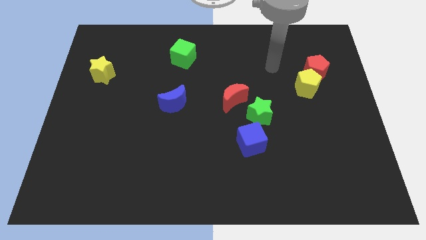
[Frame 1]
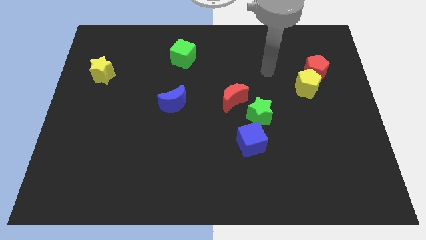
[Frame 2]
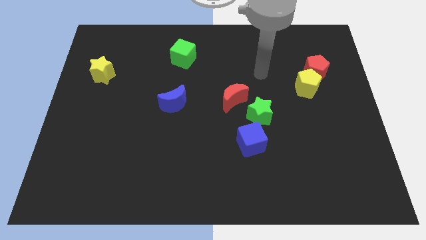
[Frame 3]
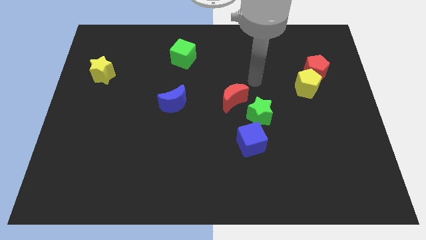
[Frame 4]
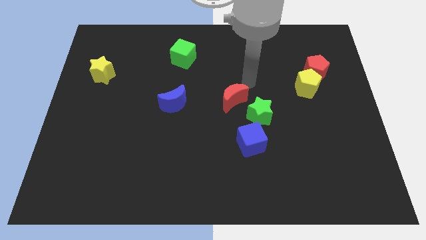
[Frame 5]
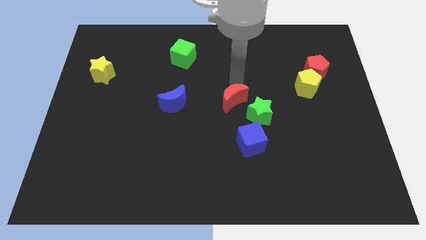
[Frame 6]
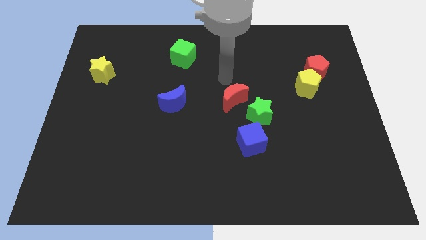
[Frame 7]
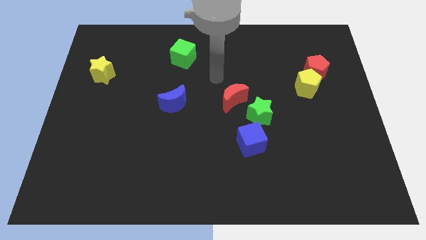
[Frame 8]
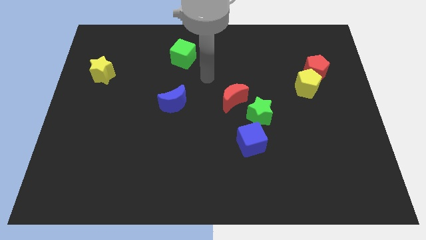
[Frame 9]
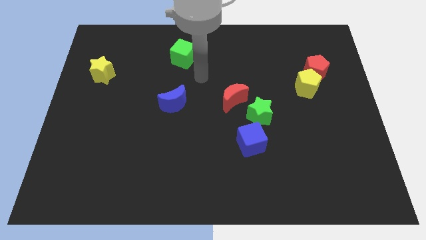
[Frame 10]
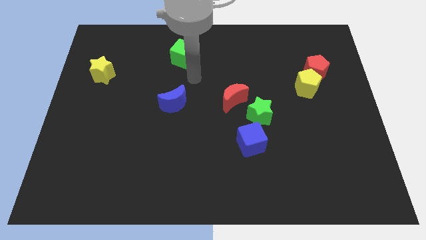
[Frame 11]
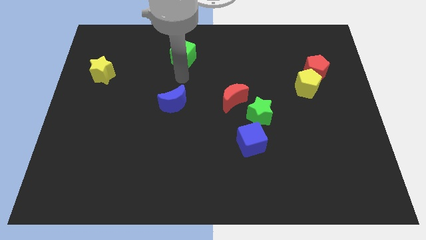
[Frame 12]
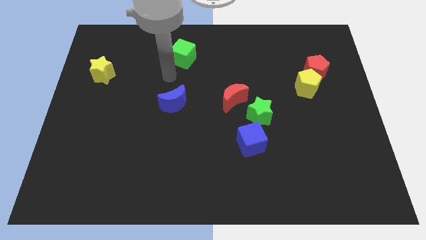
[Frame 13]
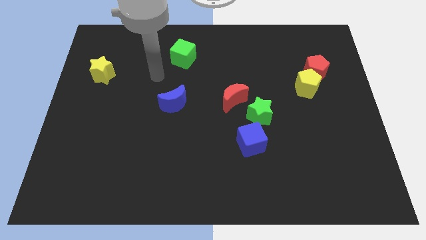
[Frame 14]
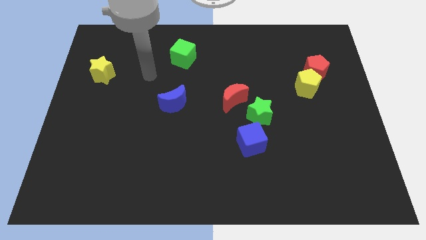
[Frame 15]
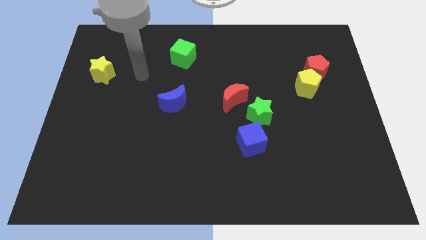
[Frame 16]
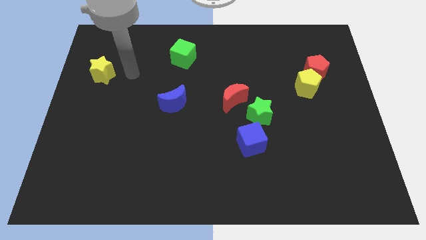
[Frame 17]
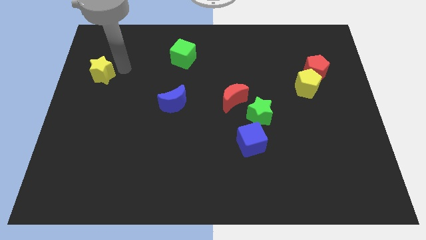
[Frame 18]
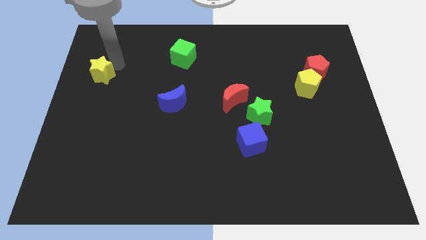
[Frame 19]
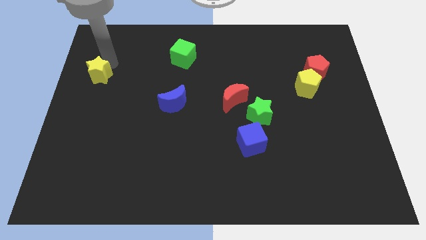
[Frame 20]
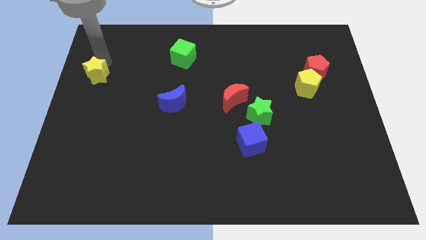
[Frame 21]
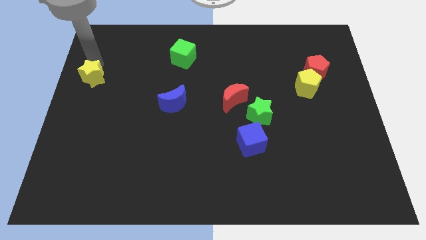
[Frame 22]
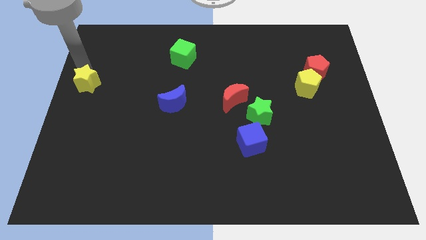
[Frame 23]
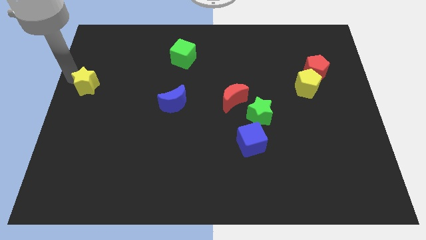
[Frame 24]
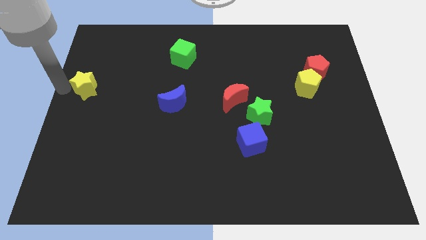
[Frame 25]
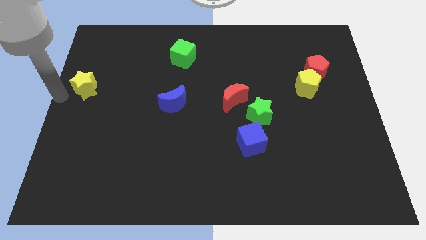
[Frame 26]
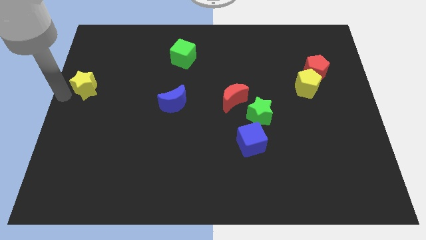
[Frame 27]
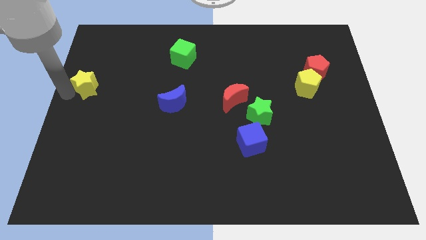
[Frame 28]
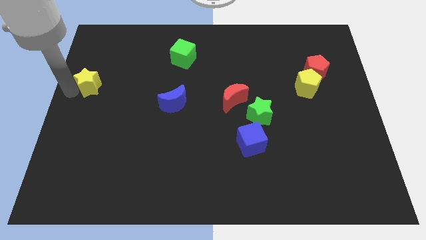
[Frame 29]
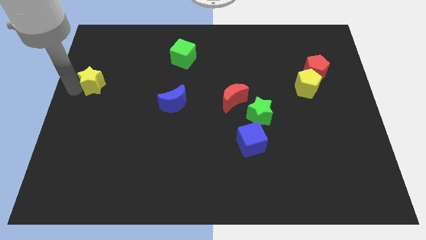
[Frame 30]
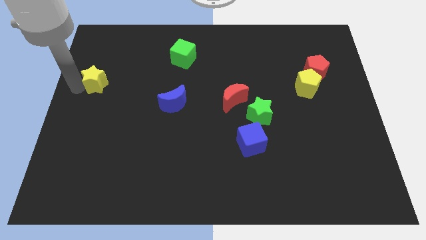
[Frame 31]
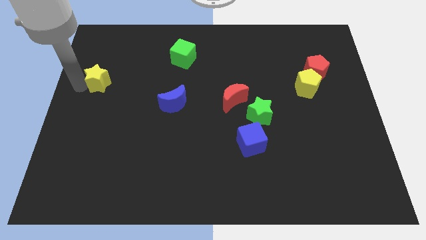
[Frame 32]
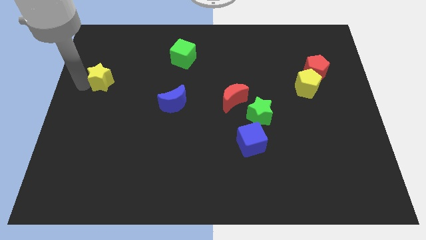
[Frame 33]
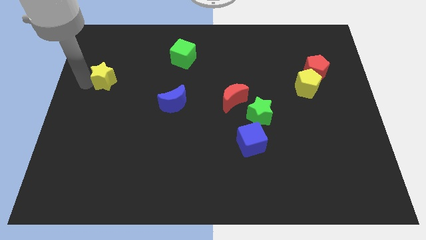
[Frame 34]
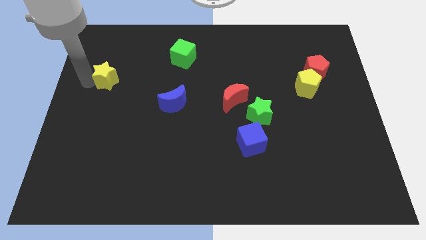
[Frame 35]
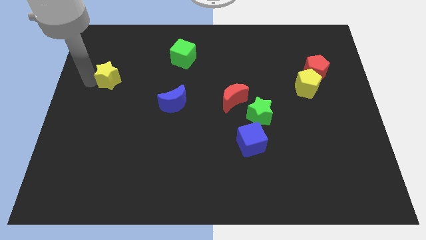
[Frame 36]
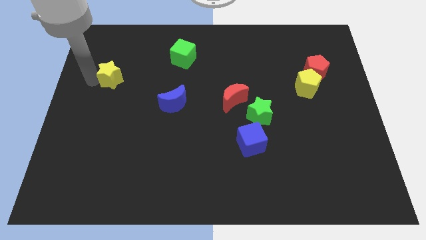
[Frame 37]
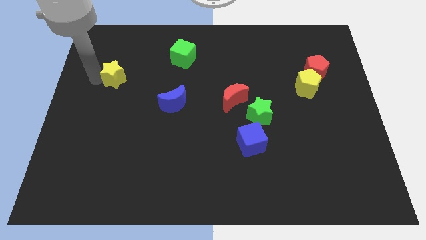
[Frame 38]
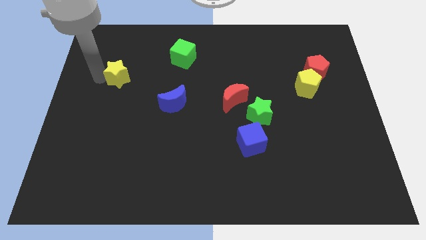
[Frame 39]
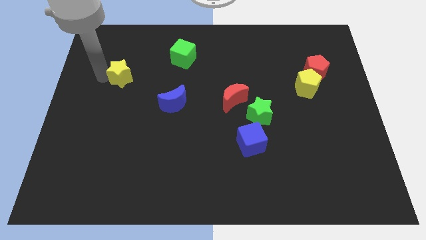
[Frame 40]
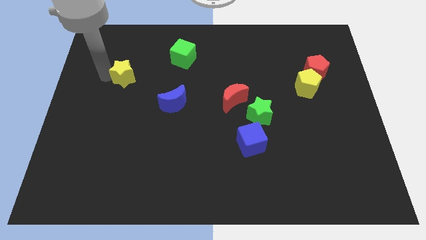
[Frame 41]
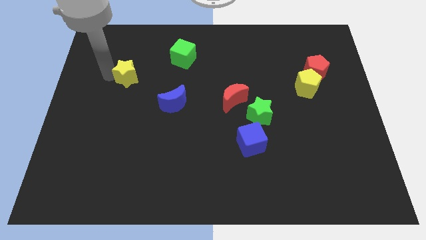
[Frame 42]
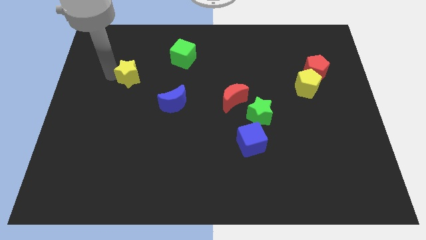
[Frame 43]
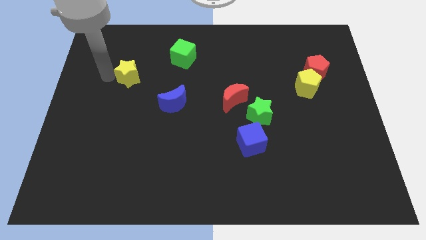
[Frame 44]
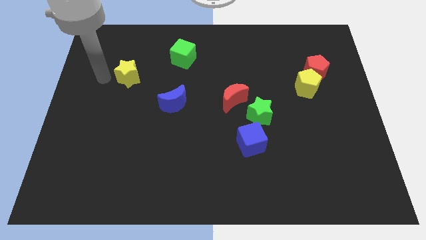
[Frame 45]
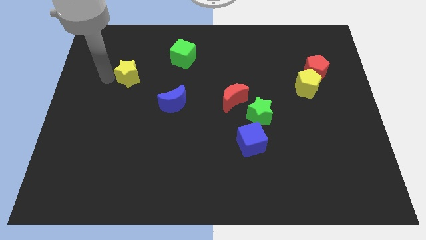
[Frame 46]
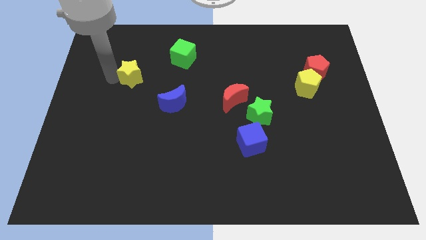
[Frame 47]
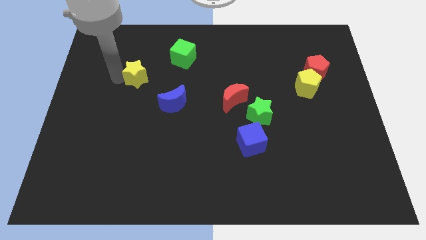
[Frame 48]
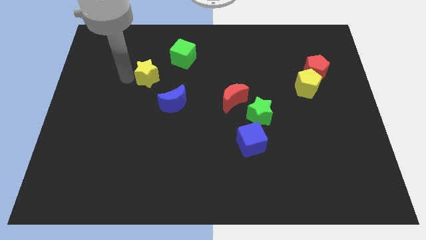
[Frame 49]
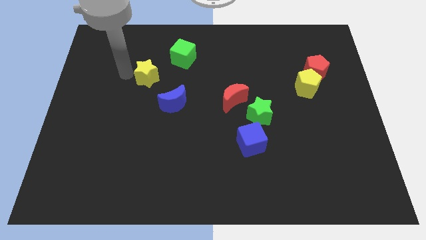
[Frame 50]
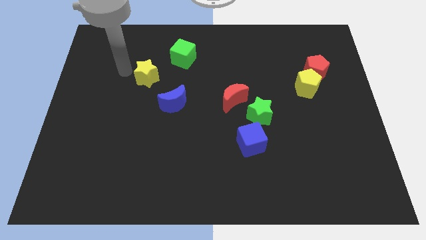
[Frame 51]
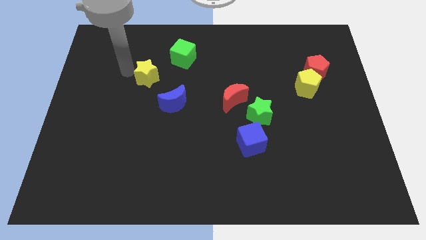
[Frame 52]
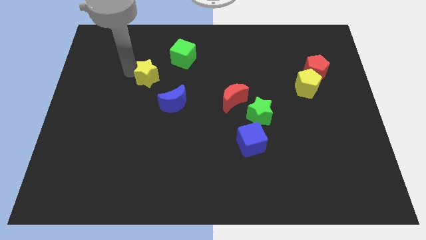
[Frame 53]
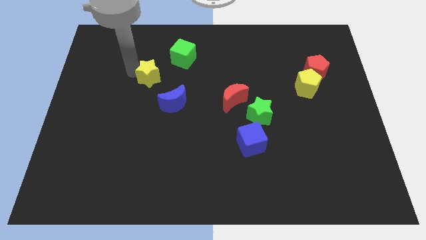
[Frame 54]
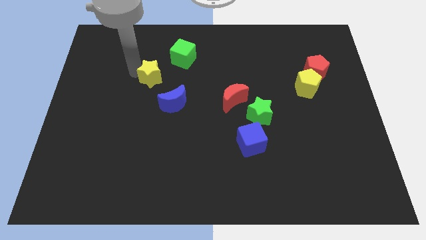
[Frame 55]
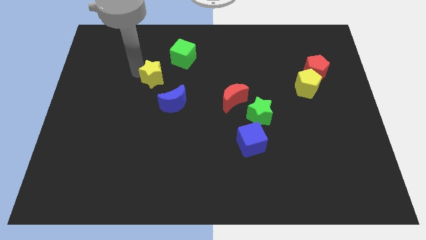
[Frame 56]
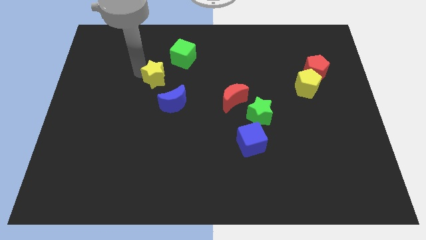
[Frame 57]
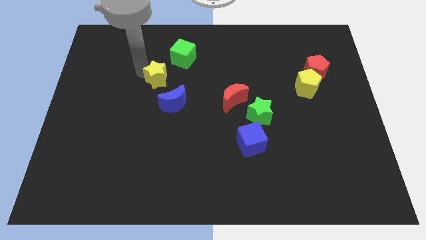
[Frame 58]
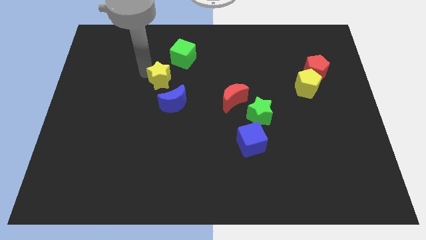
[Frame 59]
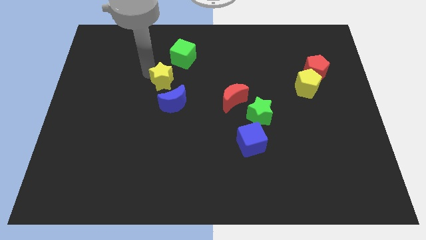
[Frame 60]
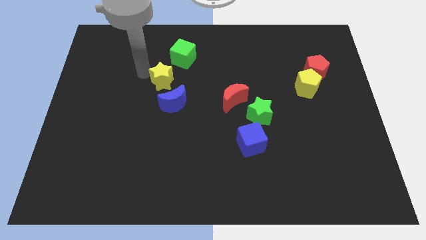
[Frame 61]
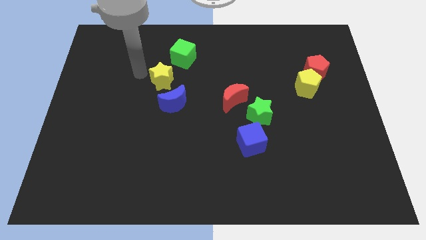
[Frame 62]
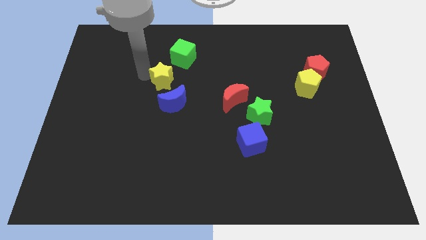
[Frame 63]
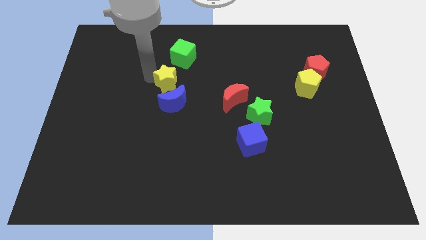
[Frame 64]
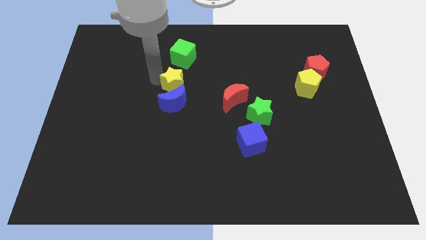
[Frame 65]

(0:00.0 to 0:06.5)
slide the yellow star to the middle
